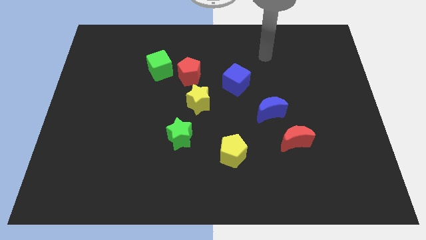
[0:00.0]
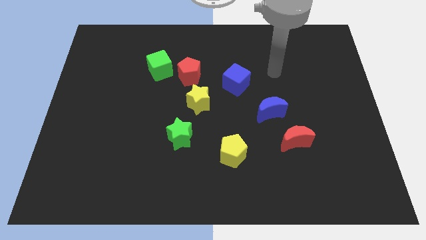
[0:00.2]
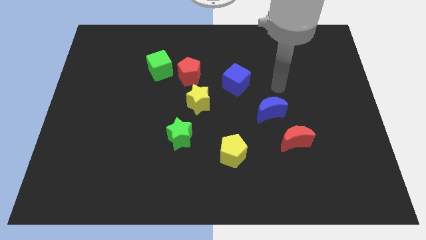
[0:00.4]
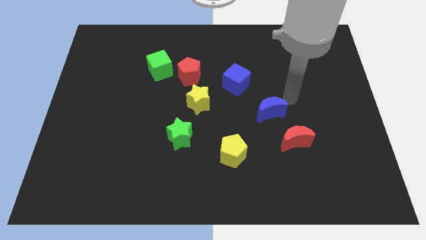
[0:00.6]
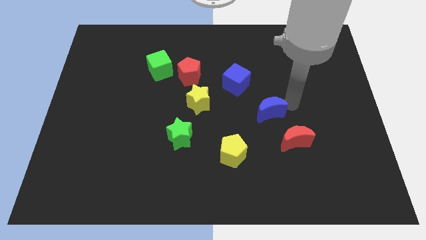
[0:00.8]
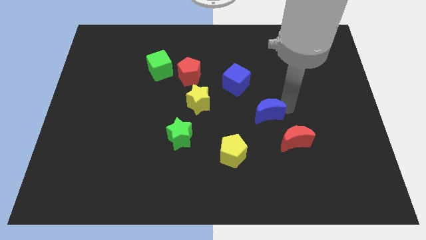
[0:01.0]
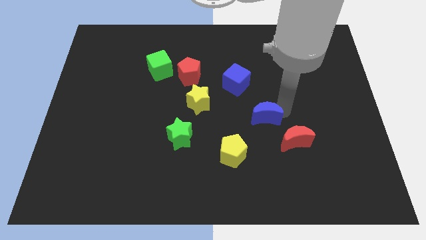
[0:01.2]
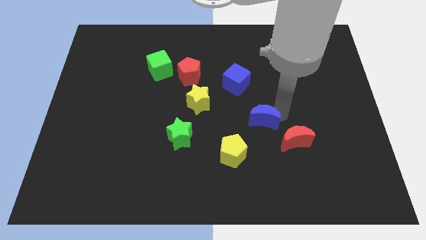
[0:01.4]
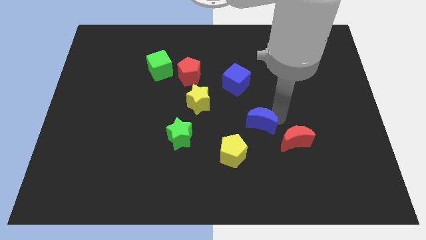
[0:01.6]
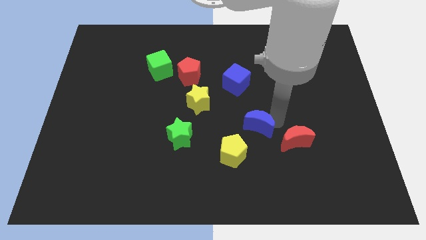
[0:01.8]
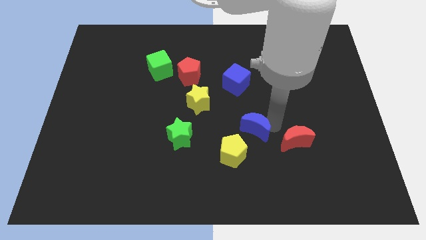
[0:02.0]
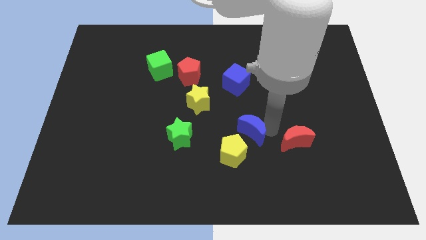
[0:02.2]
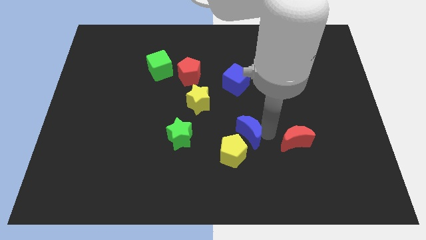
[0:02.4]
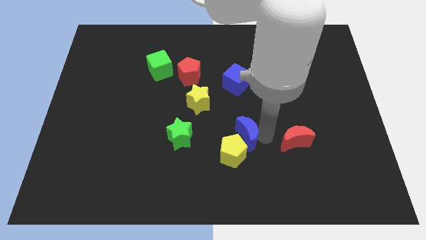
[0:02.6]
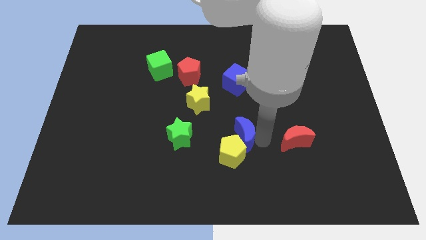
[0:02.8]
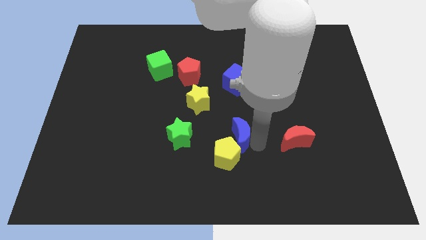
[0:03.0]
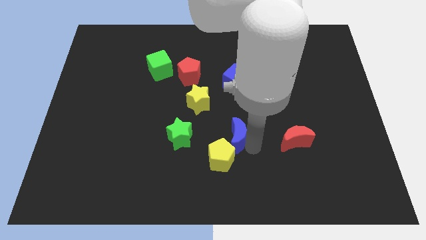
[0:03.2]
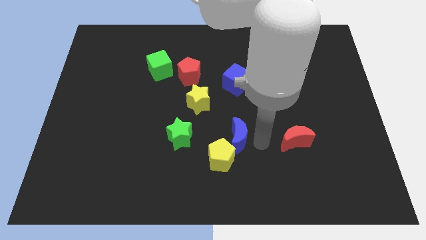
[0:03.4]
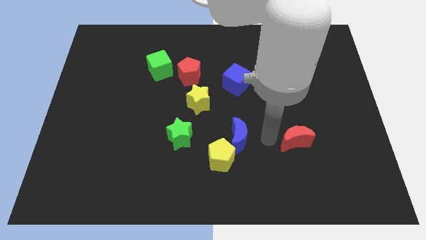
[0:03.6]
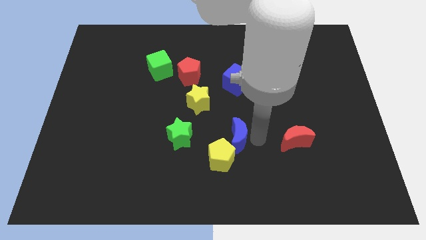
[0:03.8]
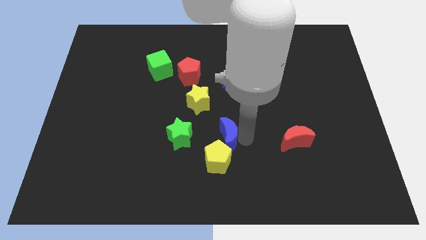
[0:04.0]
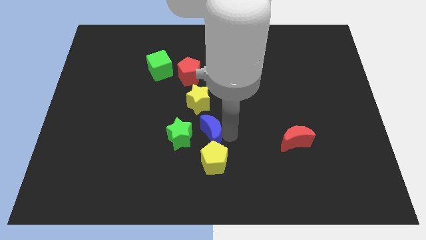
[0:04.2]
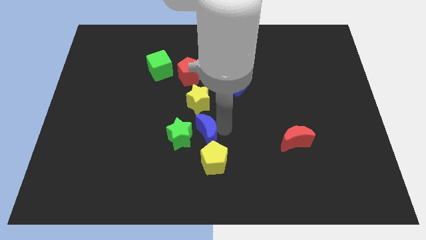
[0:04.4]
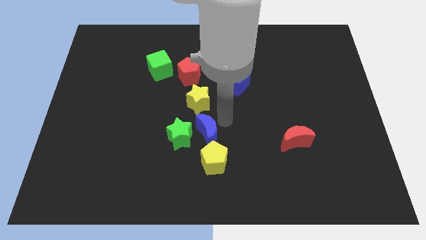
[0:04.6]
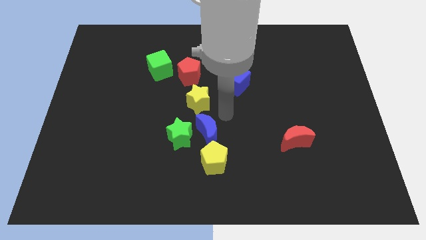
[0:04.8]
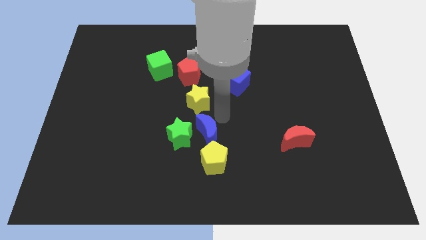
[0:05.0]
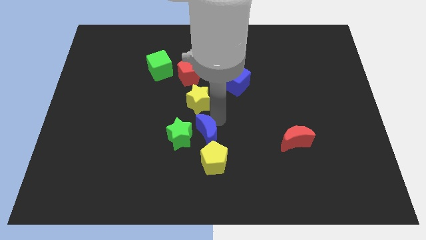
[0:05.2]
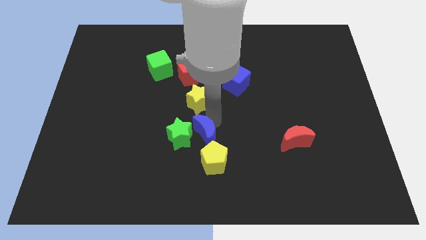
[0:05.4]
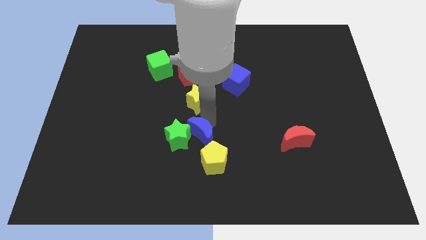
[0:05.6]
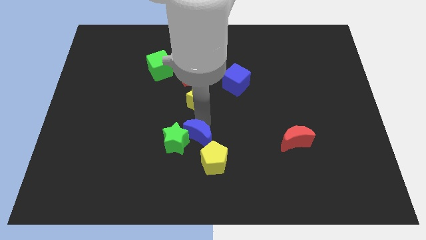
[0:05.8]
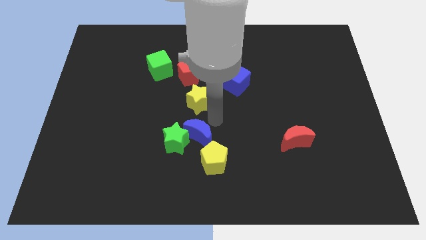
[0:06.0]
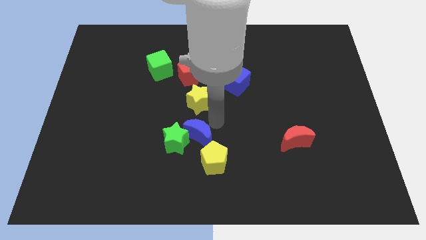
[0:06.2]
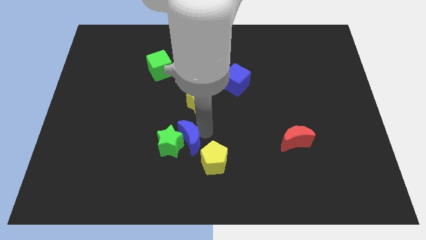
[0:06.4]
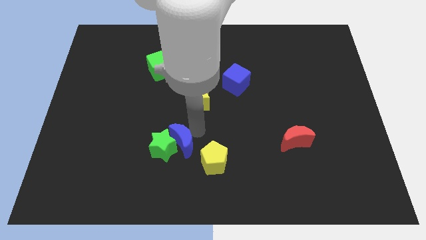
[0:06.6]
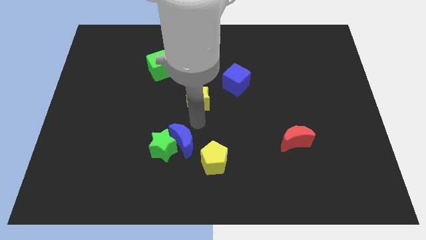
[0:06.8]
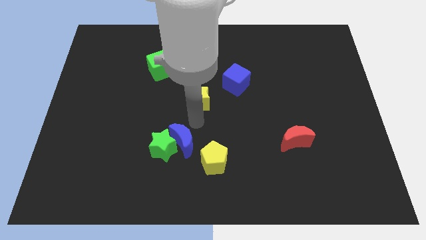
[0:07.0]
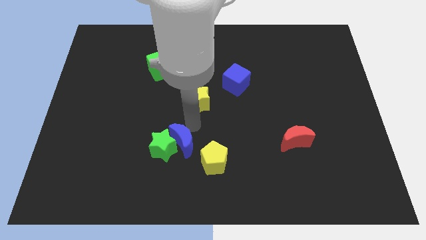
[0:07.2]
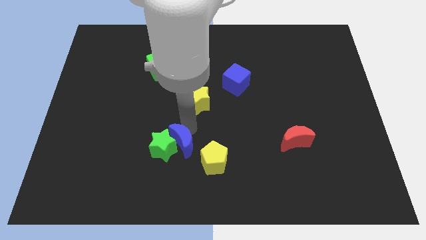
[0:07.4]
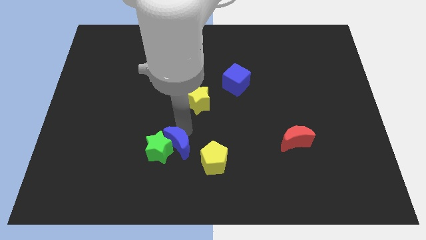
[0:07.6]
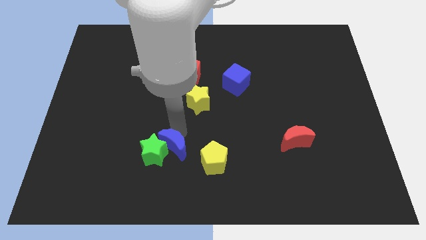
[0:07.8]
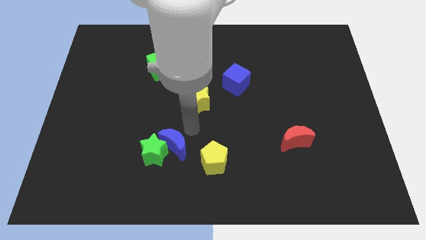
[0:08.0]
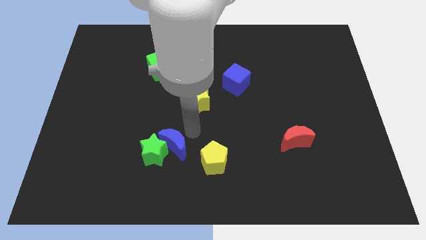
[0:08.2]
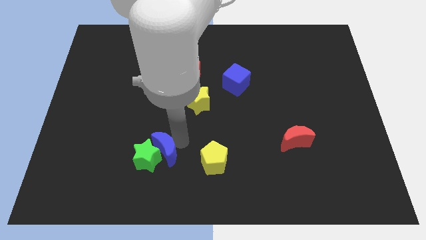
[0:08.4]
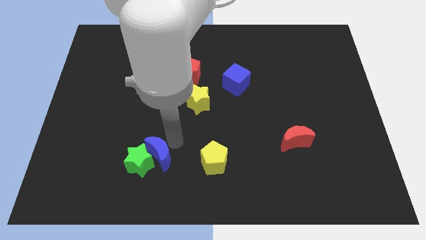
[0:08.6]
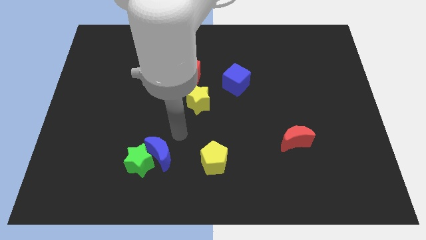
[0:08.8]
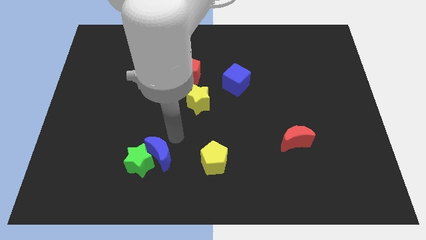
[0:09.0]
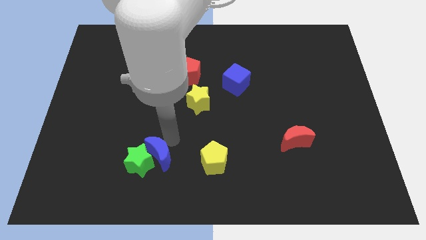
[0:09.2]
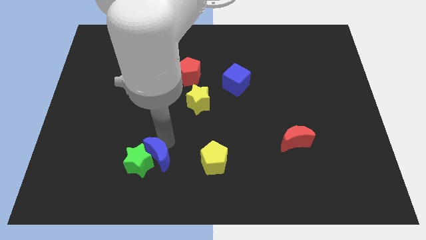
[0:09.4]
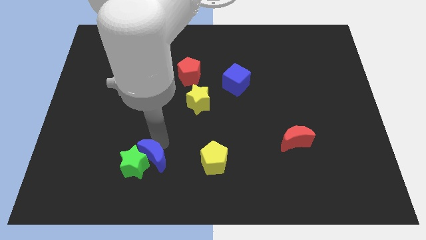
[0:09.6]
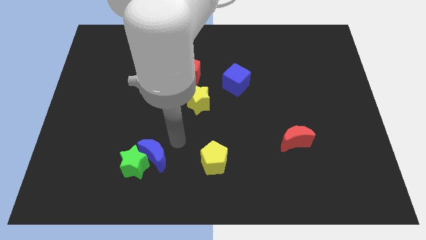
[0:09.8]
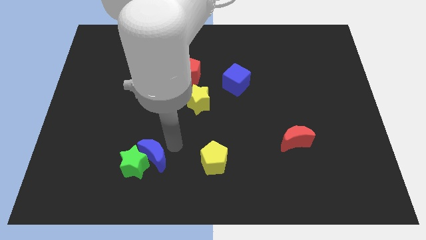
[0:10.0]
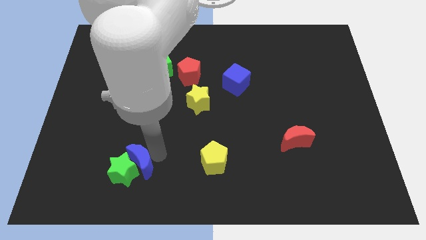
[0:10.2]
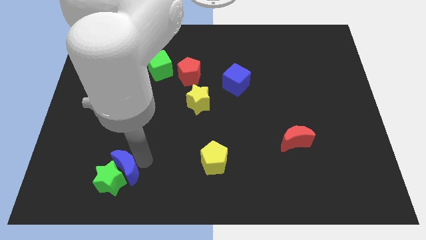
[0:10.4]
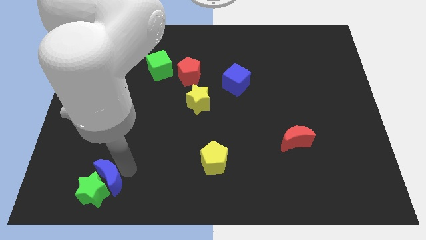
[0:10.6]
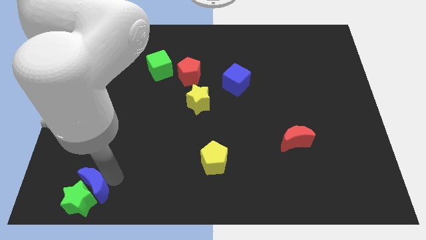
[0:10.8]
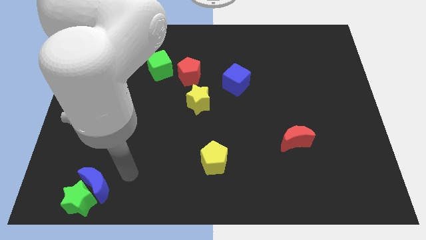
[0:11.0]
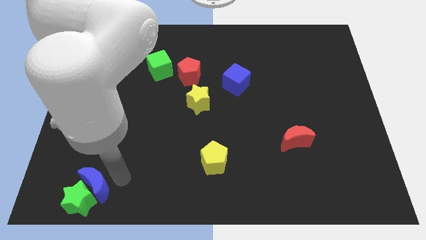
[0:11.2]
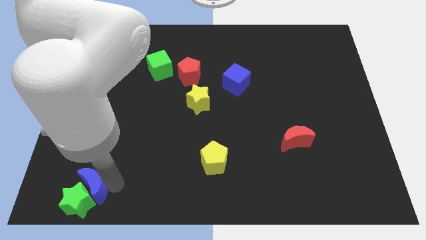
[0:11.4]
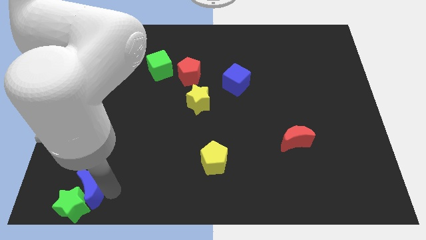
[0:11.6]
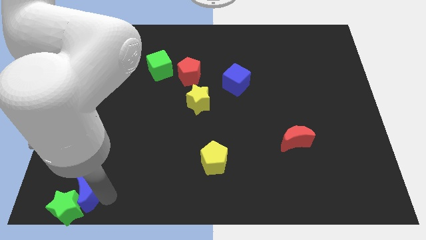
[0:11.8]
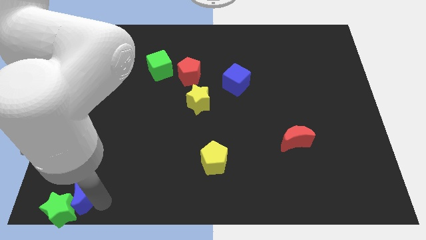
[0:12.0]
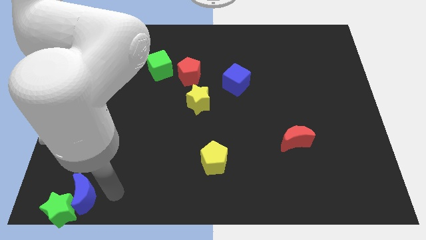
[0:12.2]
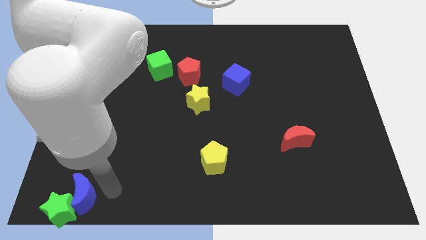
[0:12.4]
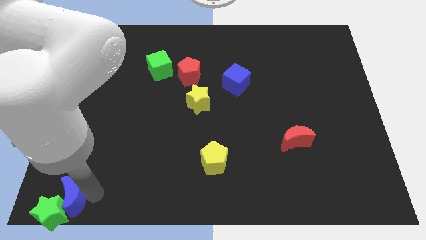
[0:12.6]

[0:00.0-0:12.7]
move the blue moon to the bottom left of the board
